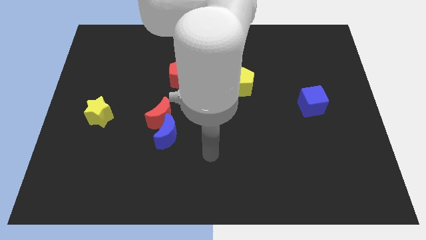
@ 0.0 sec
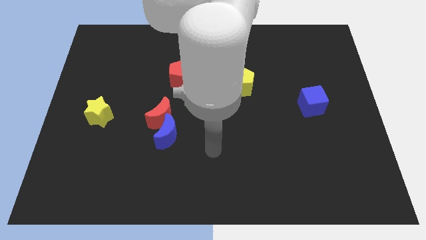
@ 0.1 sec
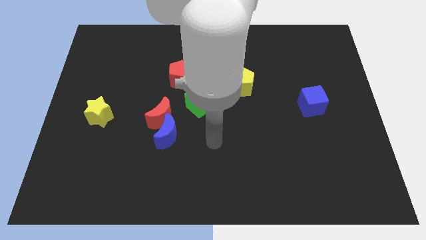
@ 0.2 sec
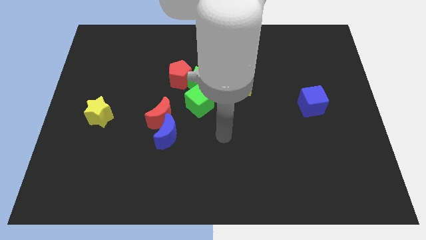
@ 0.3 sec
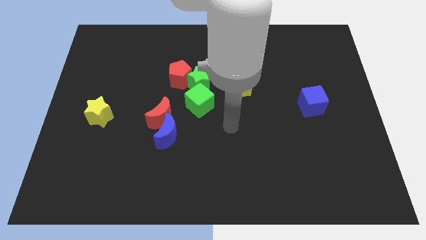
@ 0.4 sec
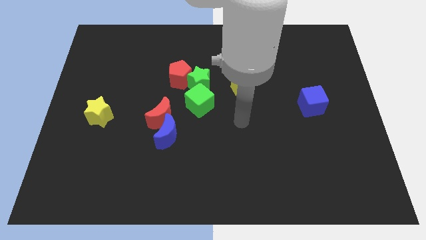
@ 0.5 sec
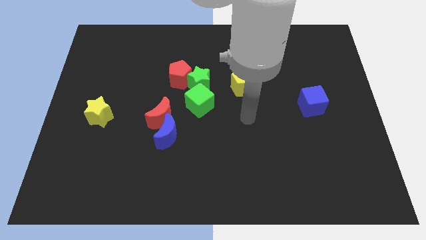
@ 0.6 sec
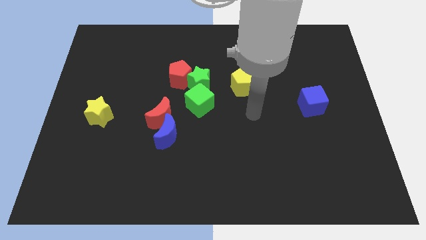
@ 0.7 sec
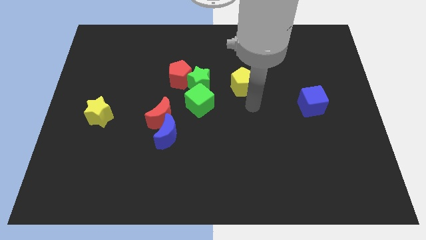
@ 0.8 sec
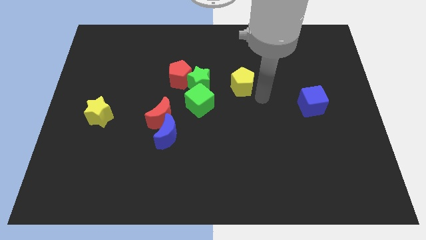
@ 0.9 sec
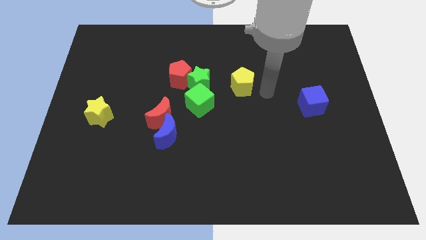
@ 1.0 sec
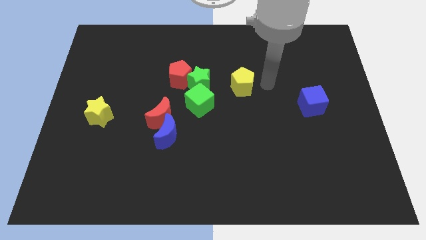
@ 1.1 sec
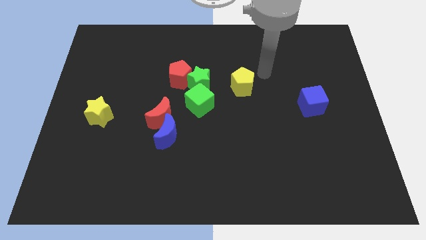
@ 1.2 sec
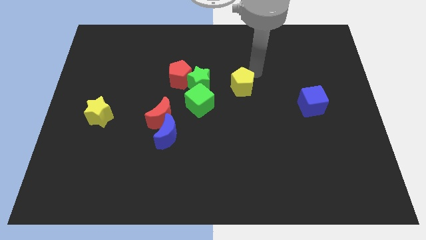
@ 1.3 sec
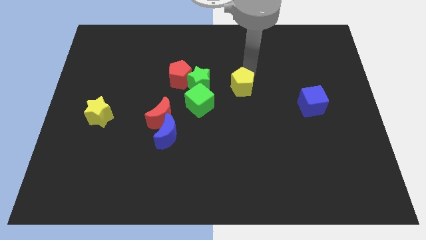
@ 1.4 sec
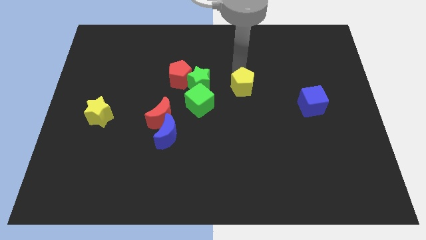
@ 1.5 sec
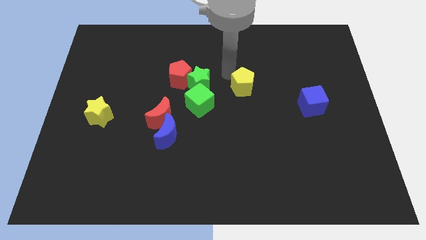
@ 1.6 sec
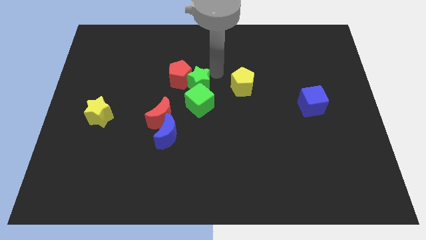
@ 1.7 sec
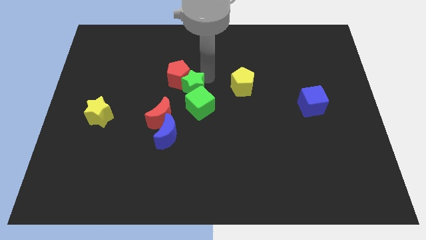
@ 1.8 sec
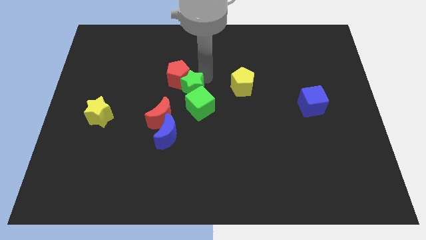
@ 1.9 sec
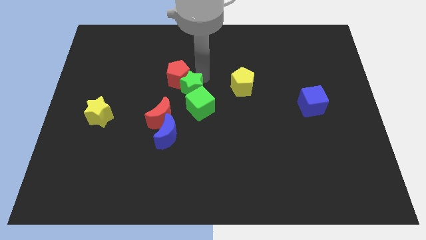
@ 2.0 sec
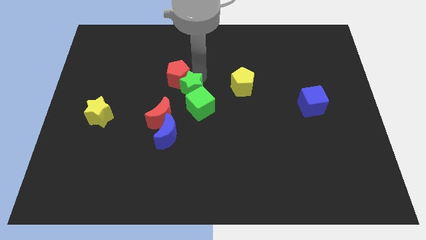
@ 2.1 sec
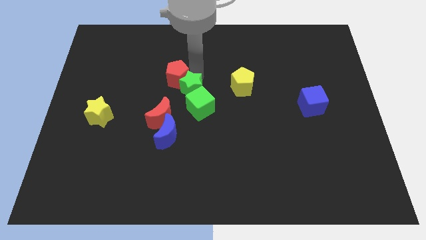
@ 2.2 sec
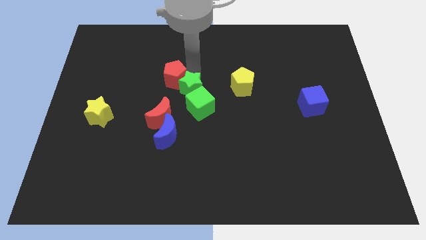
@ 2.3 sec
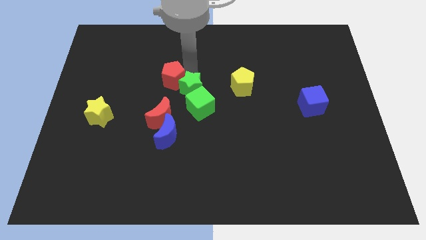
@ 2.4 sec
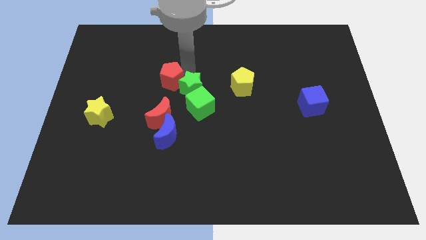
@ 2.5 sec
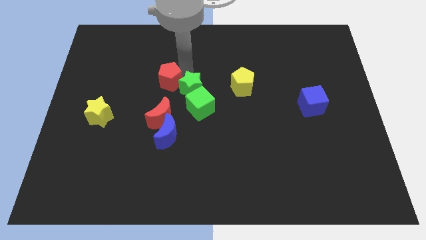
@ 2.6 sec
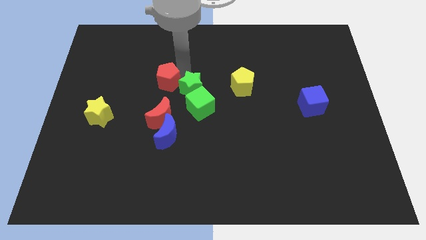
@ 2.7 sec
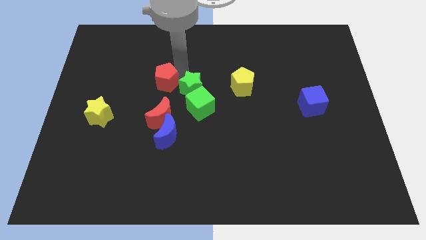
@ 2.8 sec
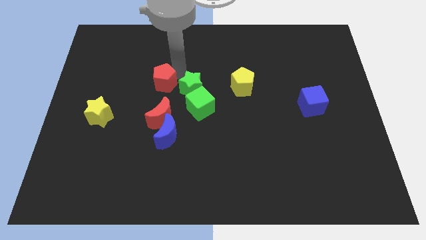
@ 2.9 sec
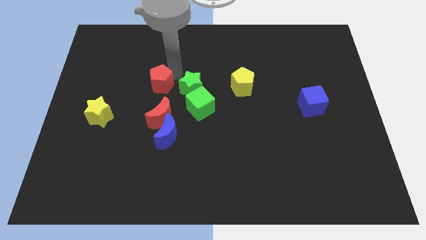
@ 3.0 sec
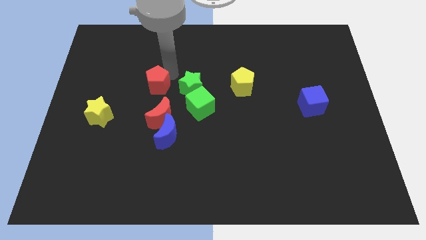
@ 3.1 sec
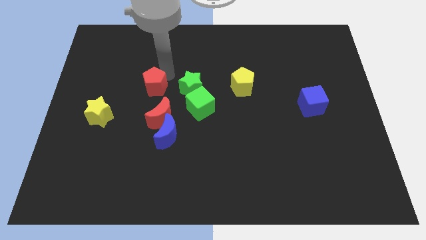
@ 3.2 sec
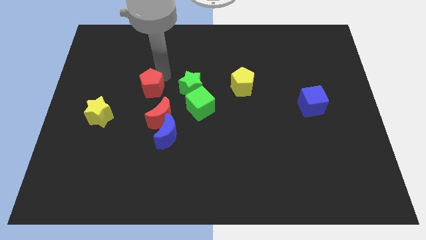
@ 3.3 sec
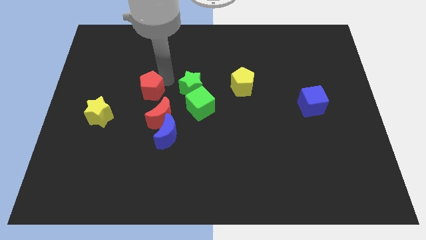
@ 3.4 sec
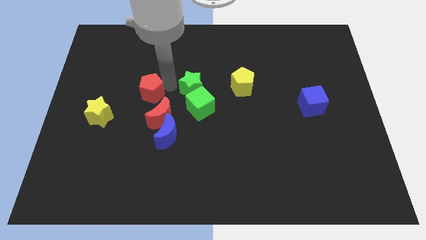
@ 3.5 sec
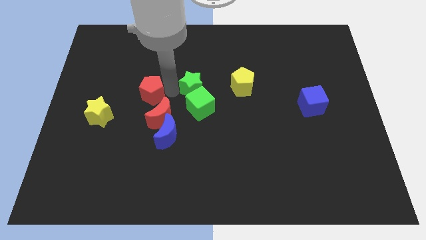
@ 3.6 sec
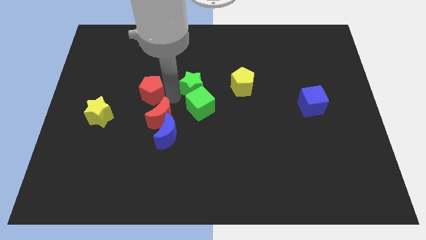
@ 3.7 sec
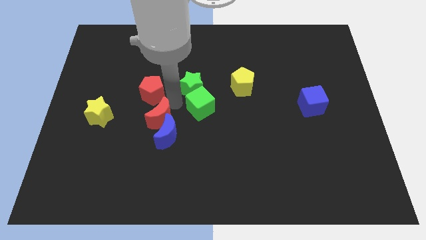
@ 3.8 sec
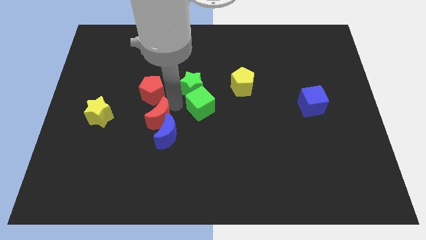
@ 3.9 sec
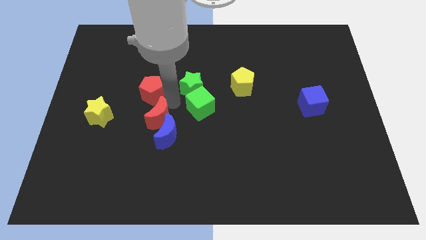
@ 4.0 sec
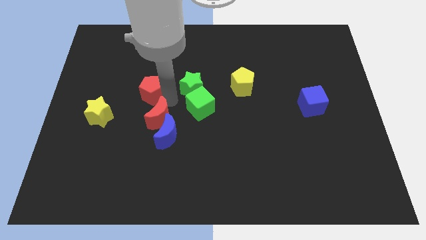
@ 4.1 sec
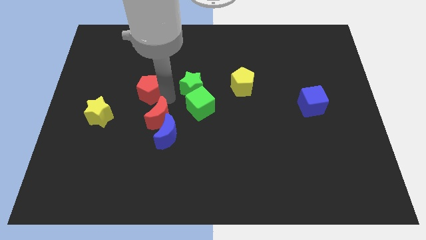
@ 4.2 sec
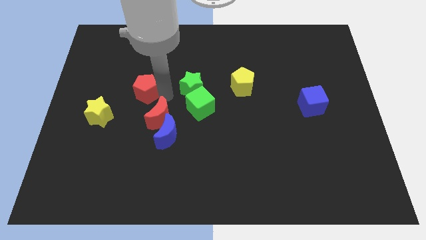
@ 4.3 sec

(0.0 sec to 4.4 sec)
move the red pentagon a little to the left

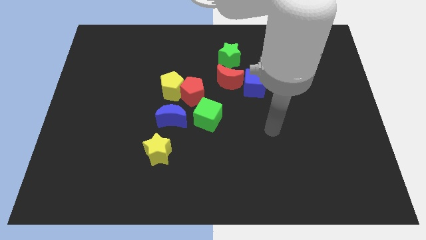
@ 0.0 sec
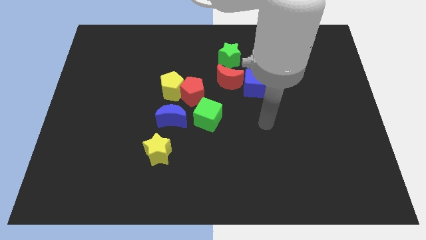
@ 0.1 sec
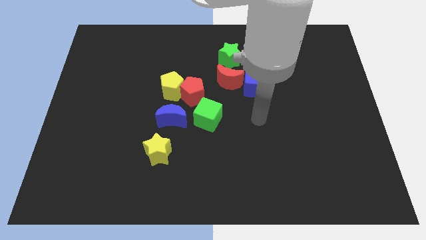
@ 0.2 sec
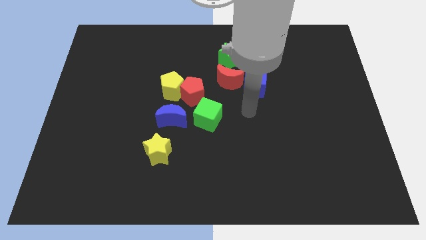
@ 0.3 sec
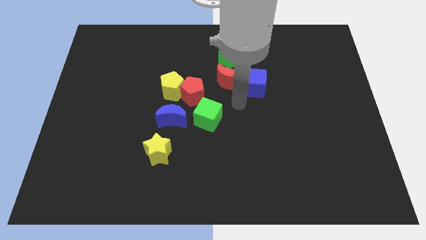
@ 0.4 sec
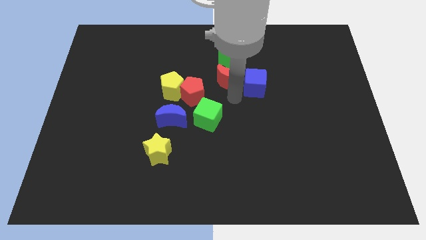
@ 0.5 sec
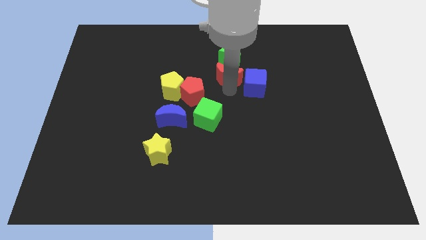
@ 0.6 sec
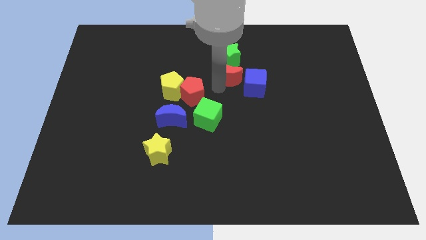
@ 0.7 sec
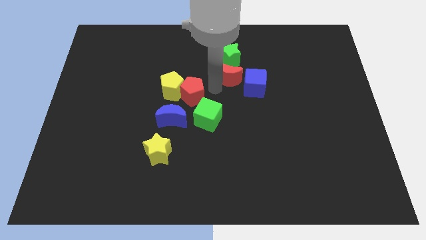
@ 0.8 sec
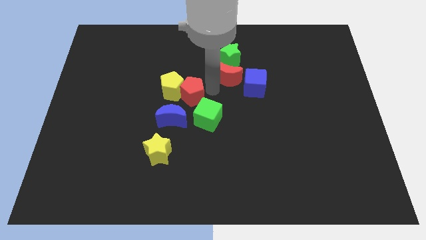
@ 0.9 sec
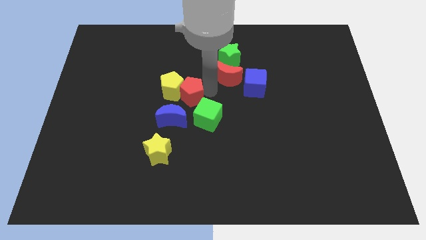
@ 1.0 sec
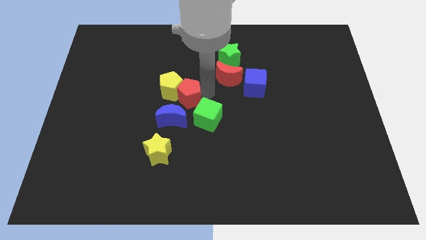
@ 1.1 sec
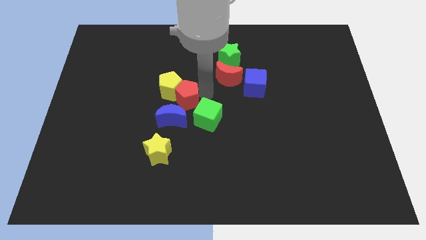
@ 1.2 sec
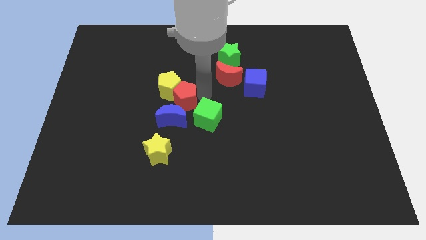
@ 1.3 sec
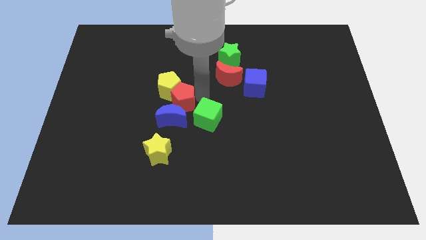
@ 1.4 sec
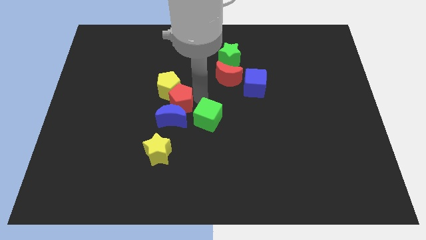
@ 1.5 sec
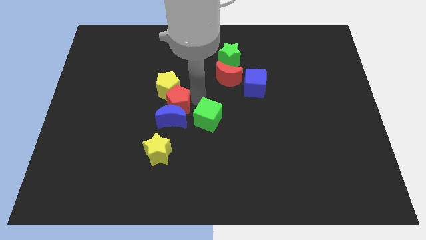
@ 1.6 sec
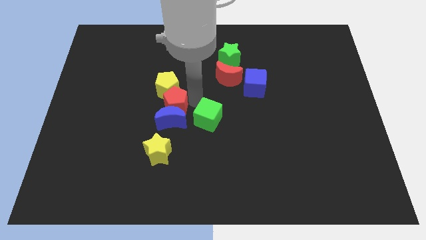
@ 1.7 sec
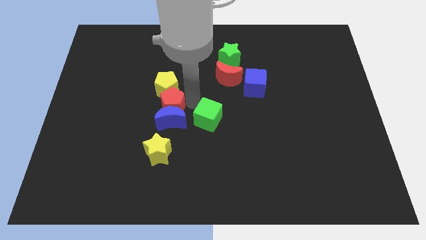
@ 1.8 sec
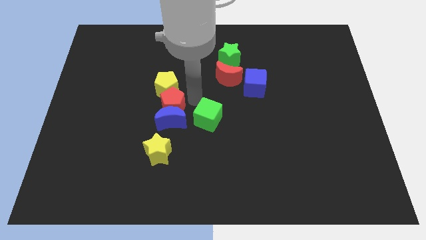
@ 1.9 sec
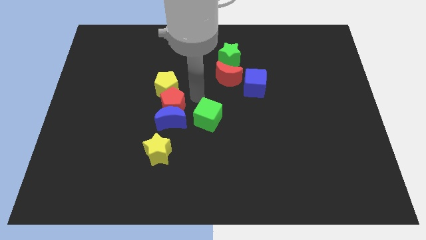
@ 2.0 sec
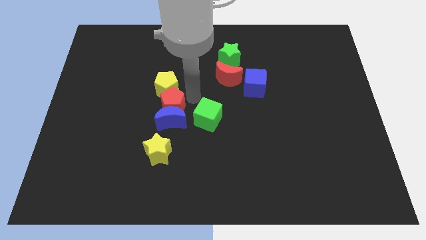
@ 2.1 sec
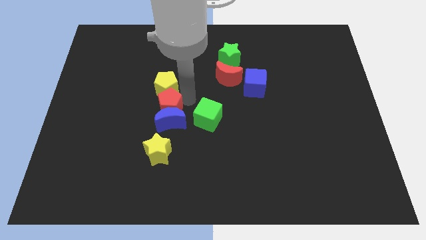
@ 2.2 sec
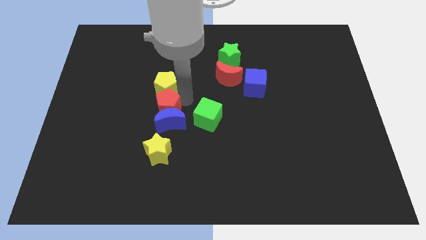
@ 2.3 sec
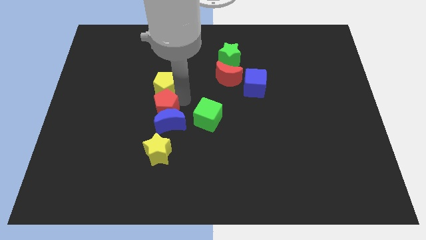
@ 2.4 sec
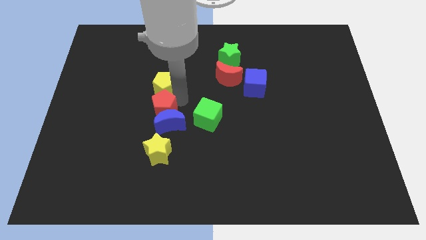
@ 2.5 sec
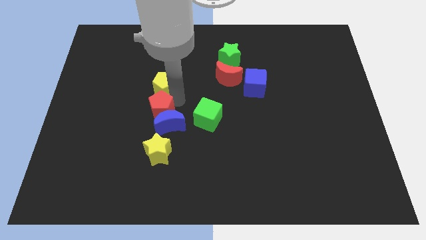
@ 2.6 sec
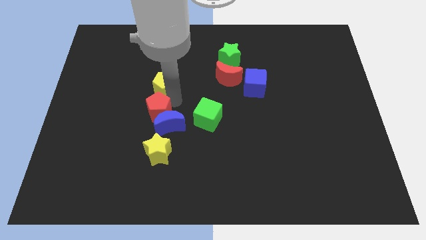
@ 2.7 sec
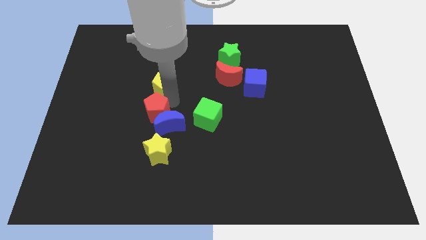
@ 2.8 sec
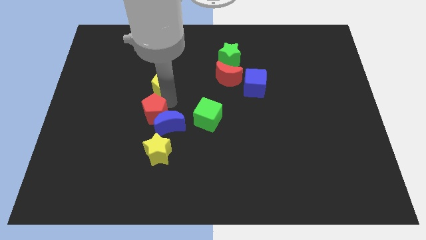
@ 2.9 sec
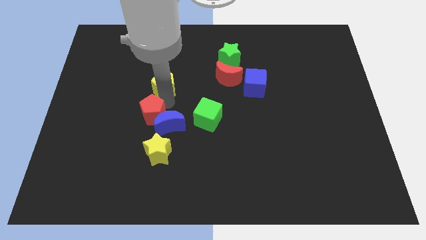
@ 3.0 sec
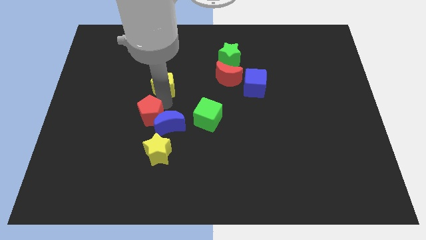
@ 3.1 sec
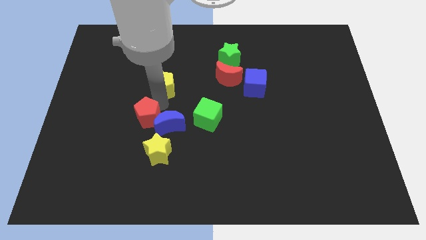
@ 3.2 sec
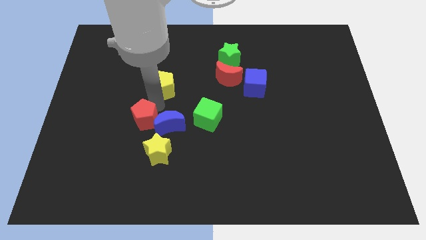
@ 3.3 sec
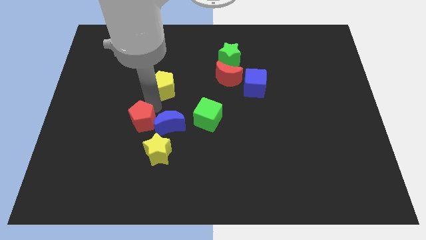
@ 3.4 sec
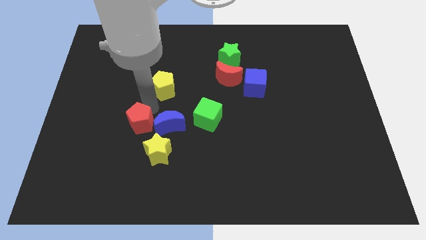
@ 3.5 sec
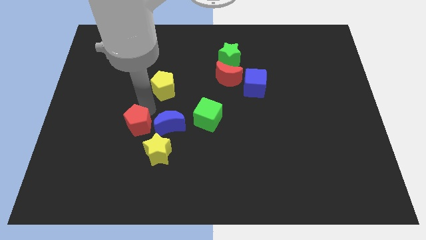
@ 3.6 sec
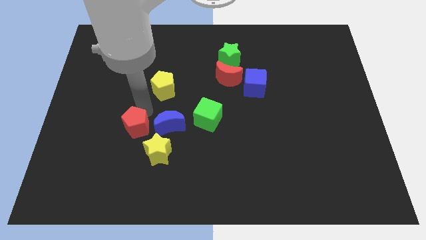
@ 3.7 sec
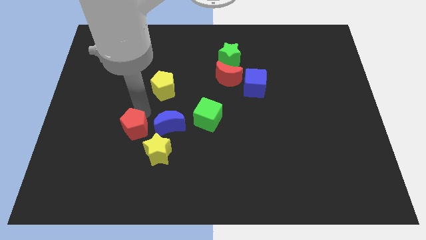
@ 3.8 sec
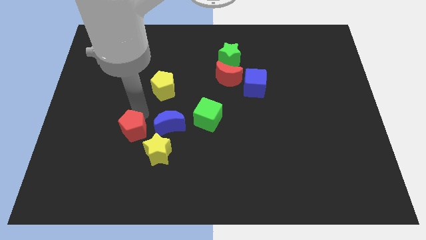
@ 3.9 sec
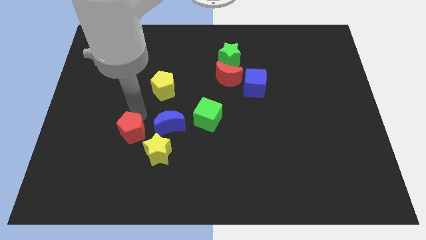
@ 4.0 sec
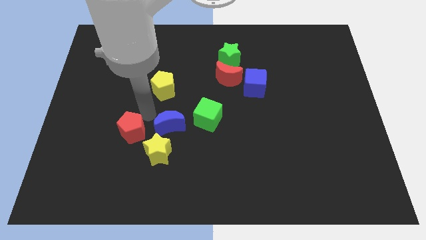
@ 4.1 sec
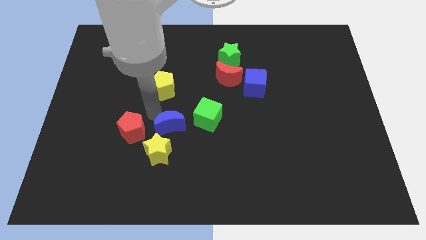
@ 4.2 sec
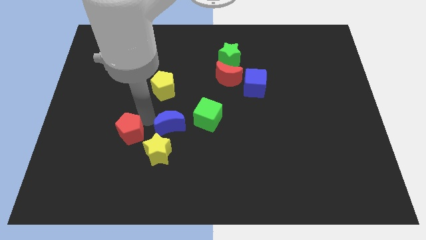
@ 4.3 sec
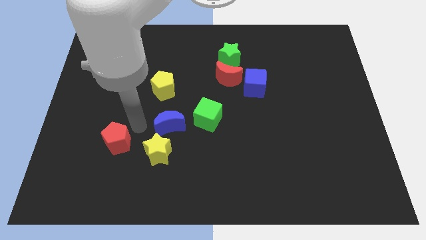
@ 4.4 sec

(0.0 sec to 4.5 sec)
slide the red pentagon downwards and left diagonally
